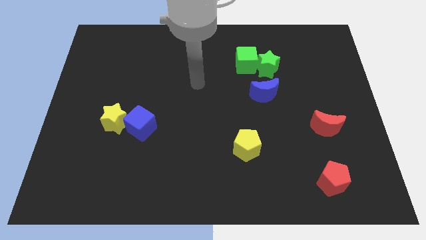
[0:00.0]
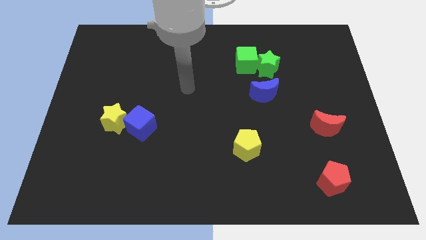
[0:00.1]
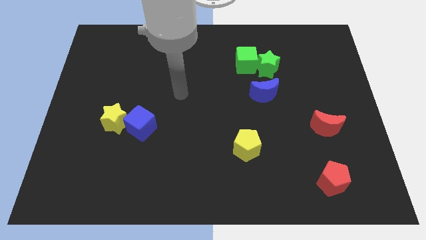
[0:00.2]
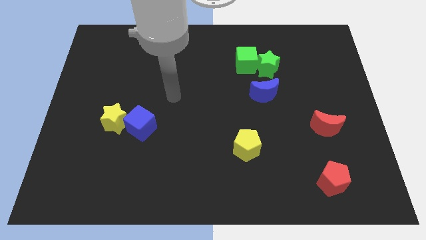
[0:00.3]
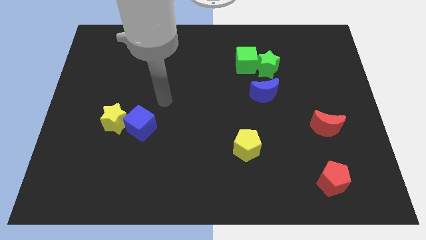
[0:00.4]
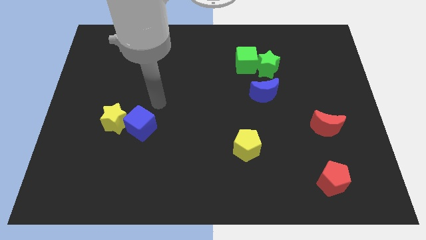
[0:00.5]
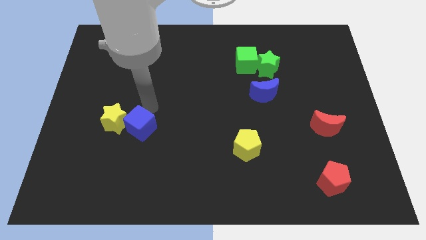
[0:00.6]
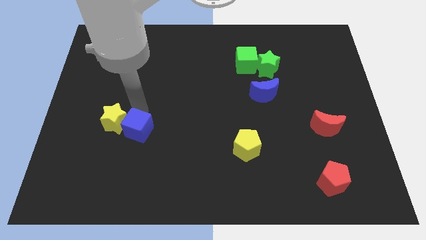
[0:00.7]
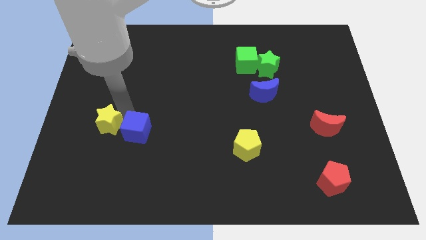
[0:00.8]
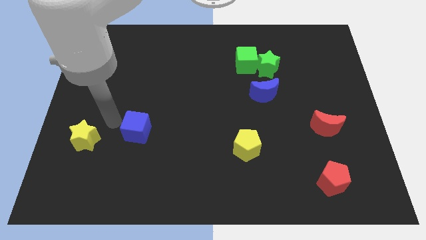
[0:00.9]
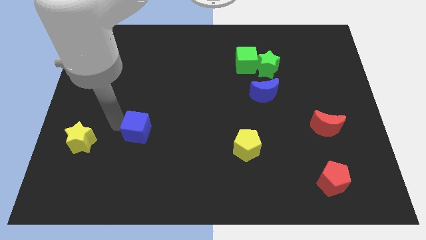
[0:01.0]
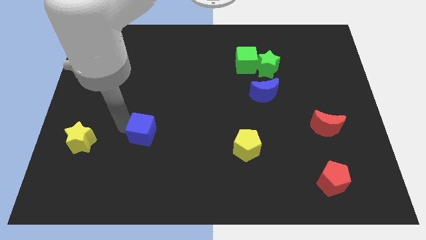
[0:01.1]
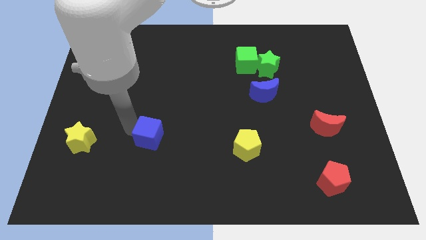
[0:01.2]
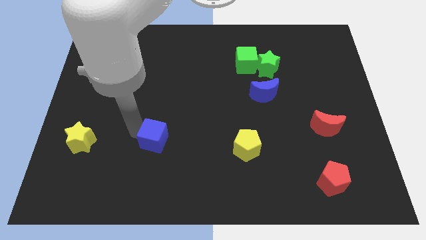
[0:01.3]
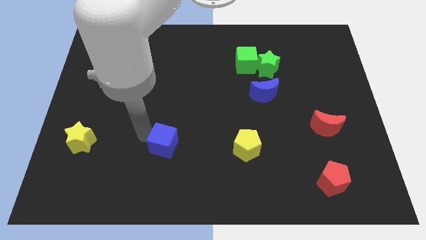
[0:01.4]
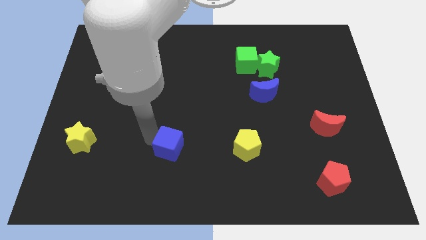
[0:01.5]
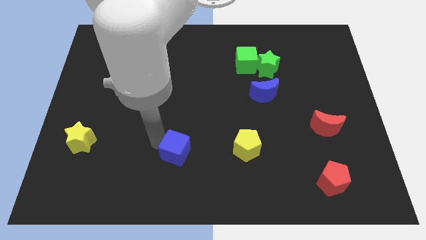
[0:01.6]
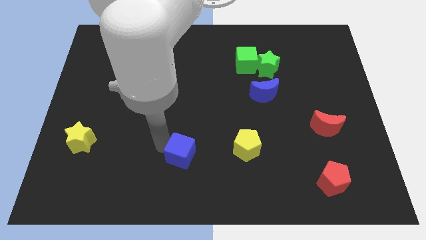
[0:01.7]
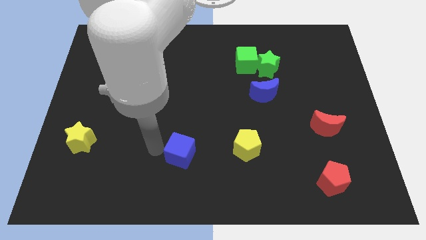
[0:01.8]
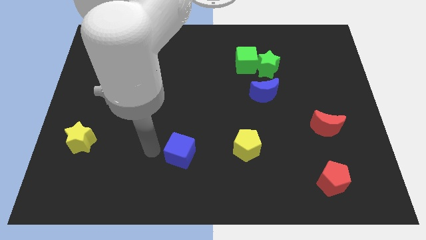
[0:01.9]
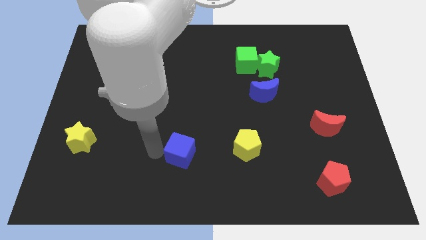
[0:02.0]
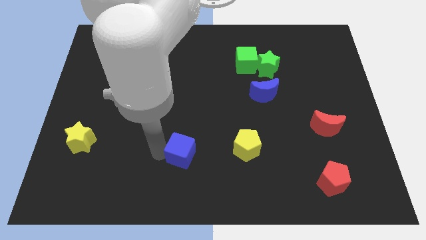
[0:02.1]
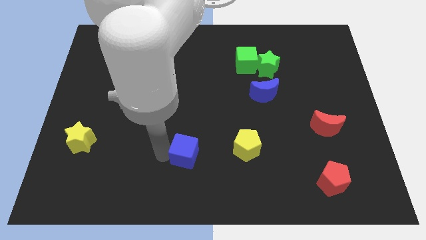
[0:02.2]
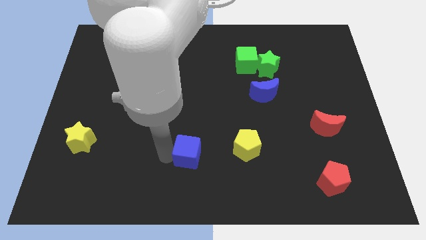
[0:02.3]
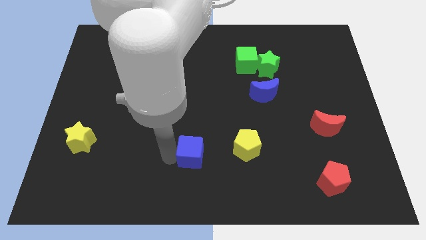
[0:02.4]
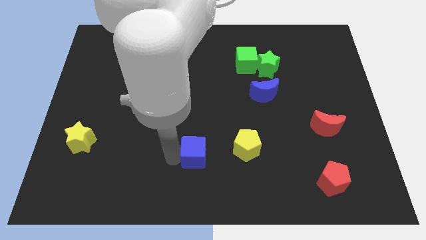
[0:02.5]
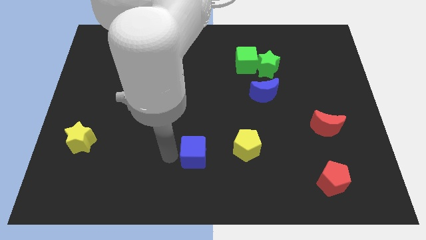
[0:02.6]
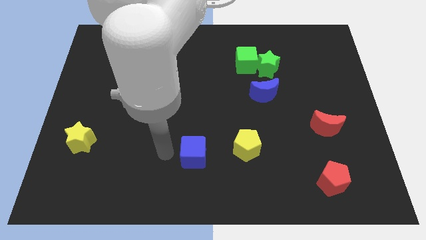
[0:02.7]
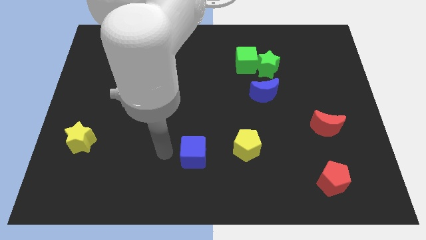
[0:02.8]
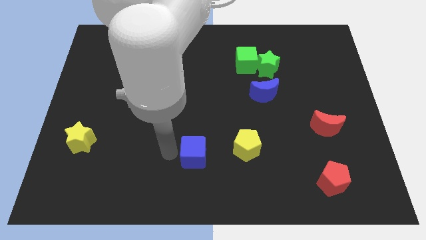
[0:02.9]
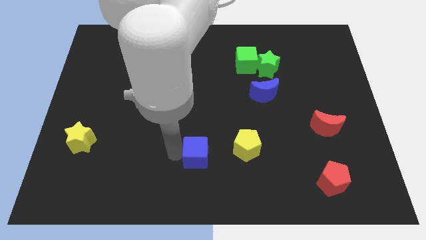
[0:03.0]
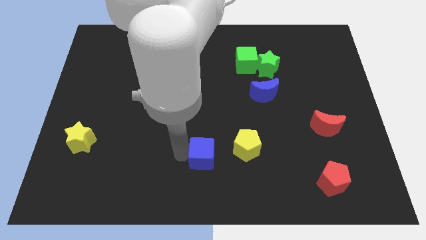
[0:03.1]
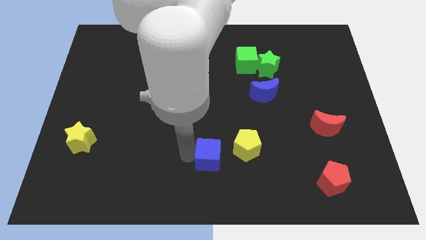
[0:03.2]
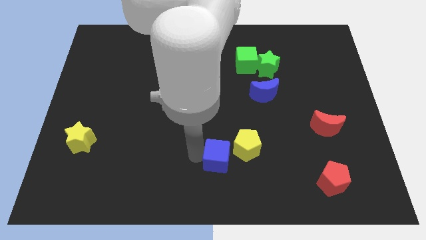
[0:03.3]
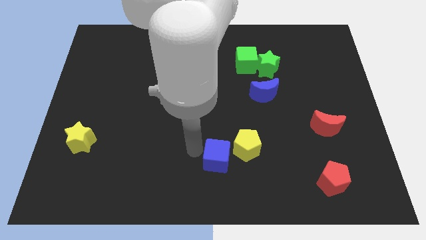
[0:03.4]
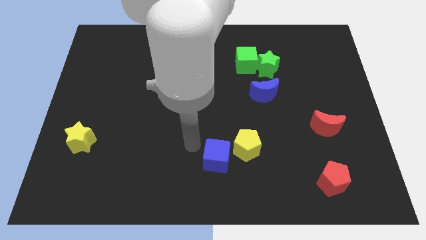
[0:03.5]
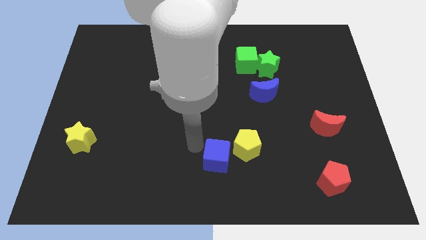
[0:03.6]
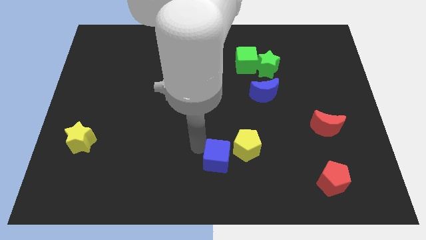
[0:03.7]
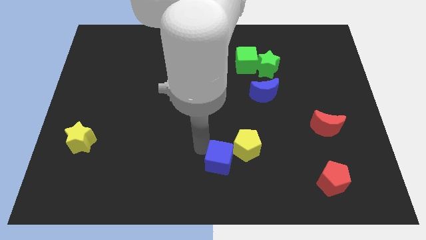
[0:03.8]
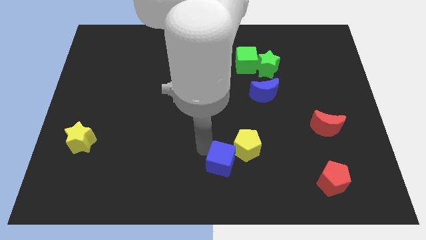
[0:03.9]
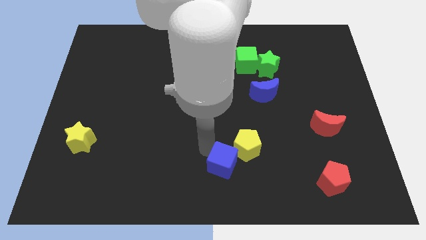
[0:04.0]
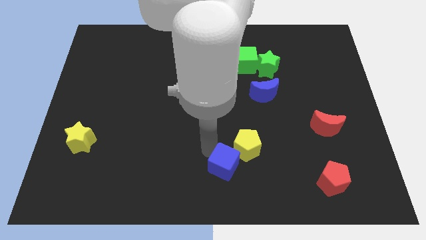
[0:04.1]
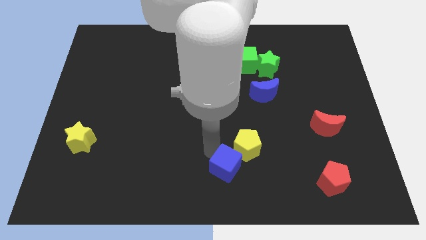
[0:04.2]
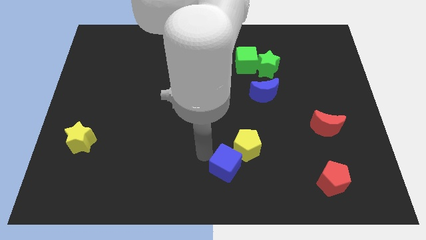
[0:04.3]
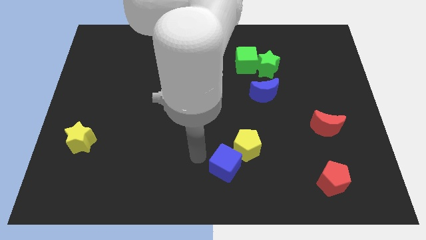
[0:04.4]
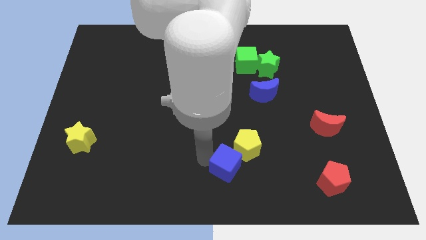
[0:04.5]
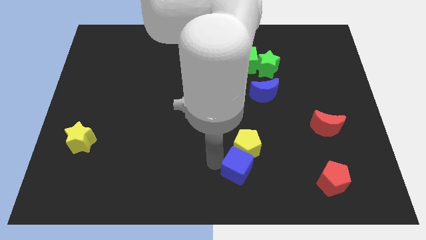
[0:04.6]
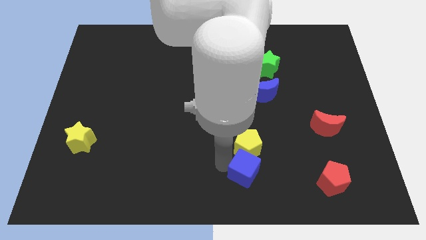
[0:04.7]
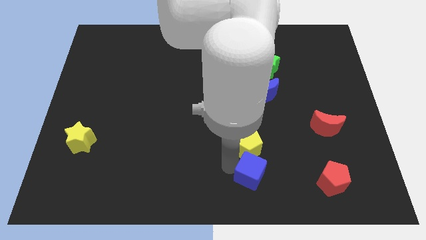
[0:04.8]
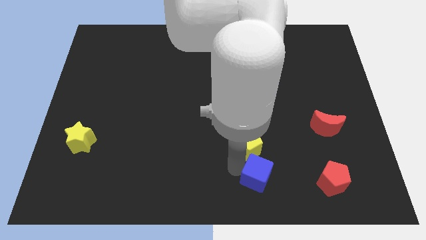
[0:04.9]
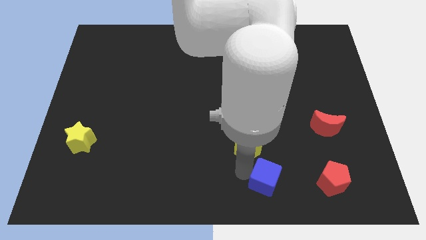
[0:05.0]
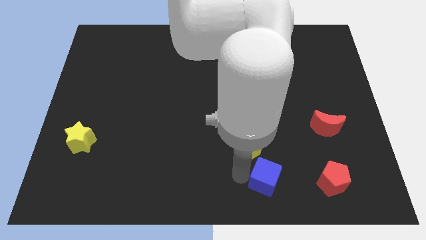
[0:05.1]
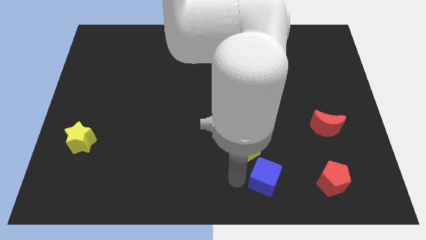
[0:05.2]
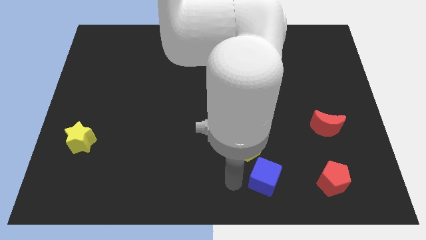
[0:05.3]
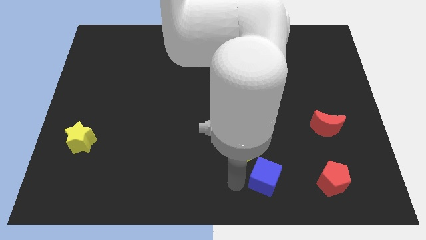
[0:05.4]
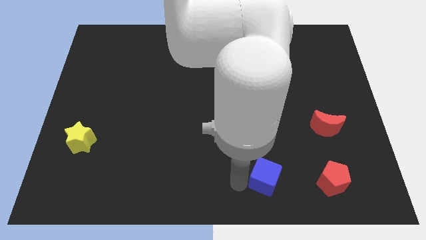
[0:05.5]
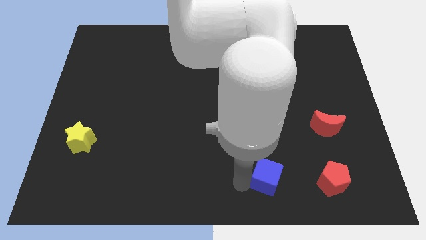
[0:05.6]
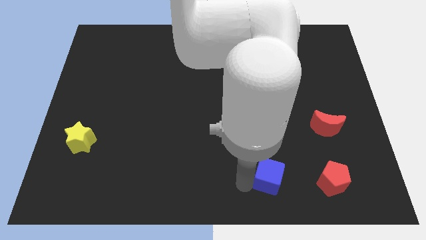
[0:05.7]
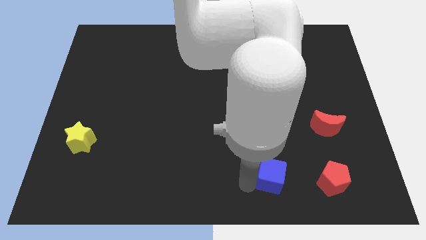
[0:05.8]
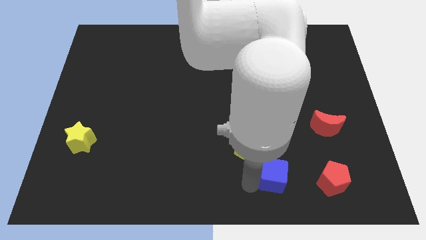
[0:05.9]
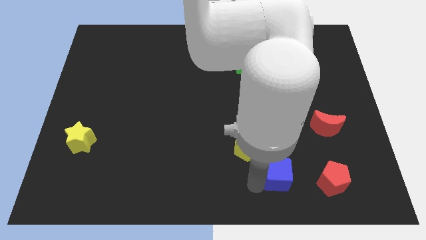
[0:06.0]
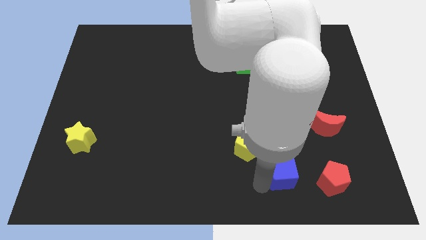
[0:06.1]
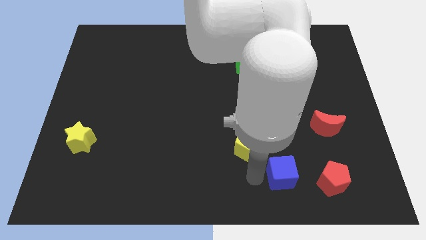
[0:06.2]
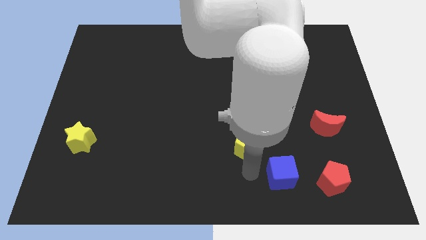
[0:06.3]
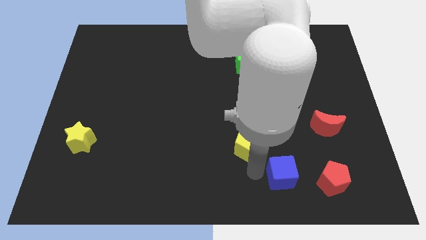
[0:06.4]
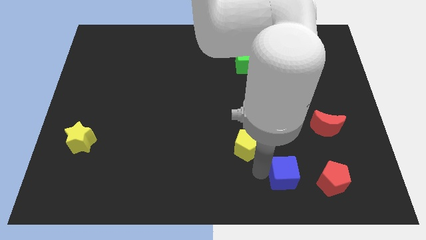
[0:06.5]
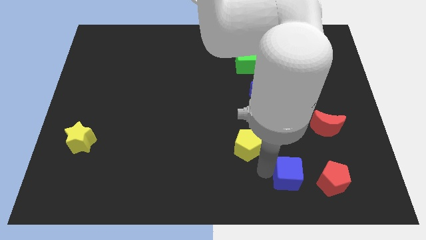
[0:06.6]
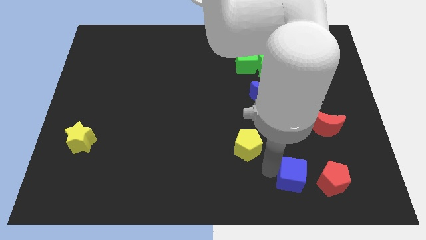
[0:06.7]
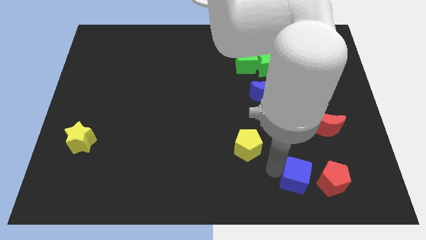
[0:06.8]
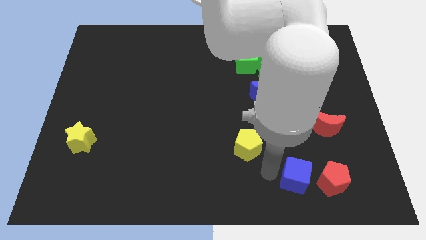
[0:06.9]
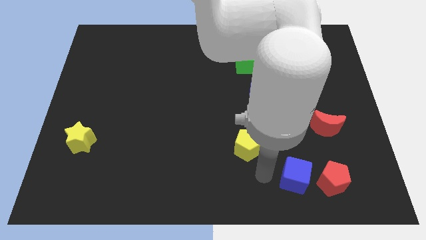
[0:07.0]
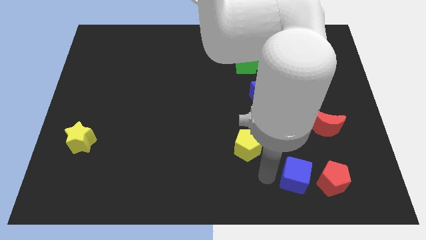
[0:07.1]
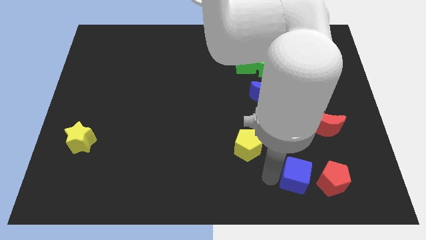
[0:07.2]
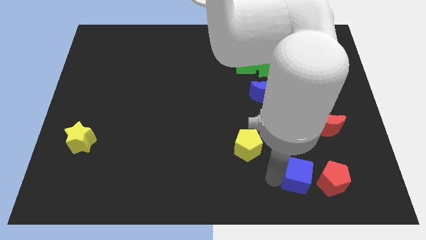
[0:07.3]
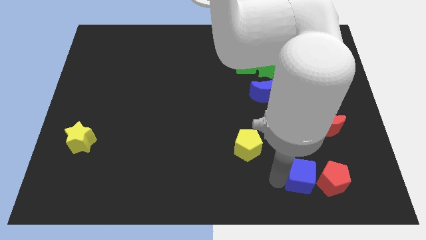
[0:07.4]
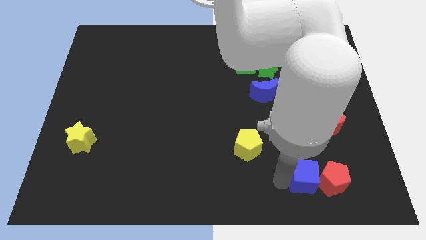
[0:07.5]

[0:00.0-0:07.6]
slide the blue cube to the red pentagon
